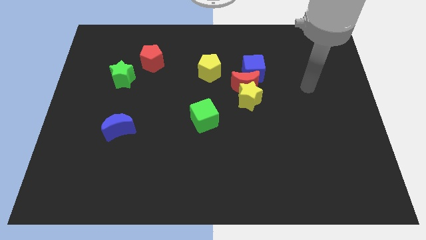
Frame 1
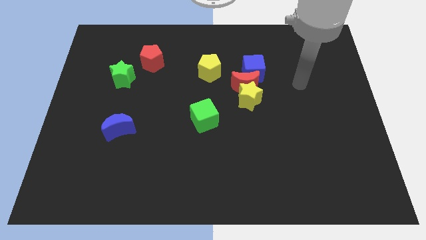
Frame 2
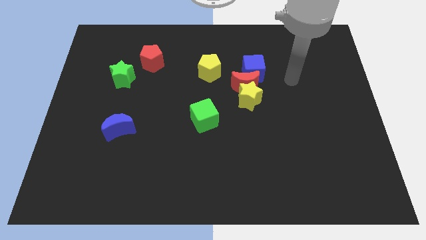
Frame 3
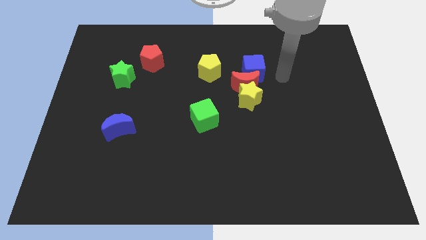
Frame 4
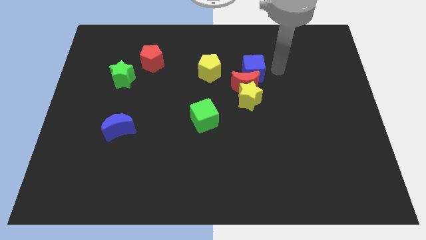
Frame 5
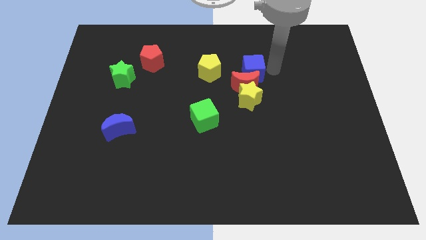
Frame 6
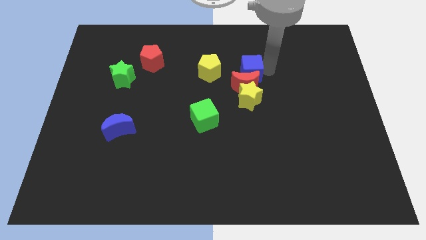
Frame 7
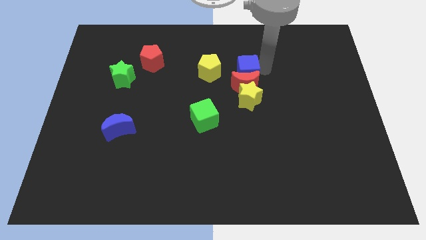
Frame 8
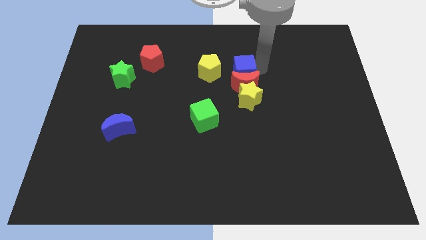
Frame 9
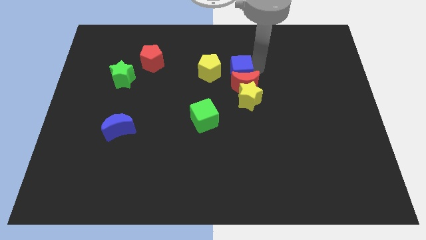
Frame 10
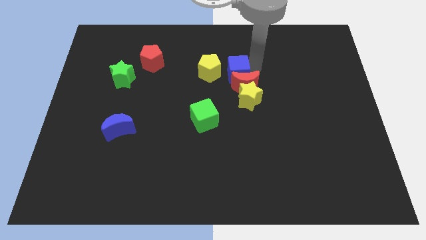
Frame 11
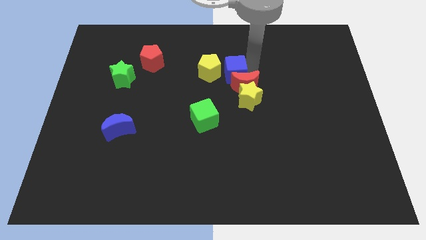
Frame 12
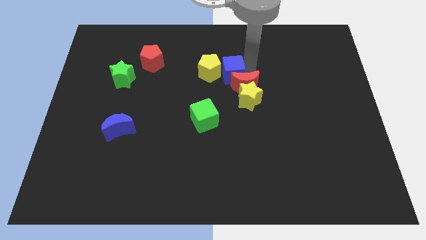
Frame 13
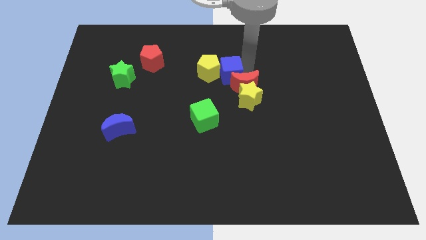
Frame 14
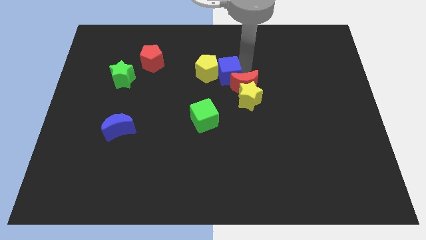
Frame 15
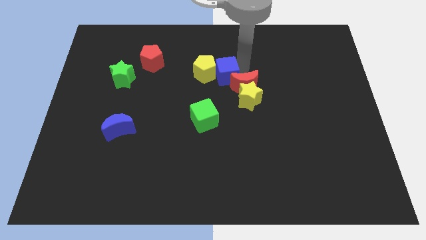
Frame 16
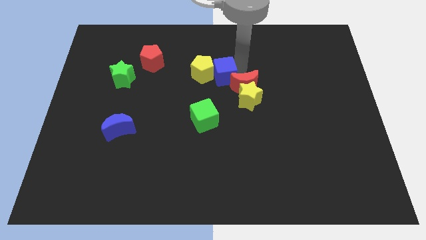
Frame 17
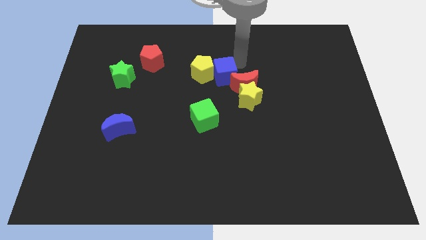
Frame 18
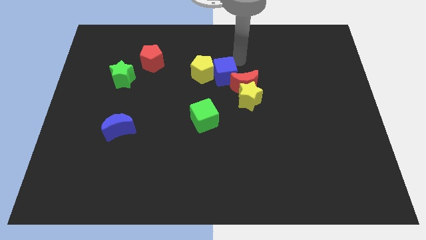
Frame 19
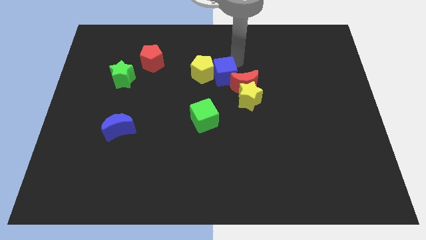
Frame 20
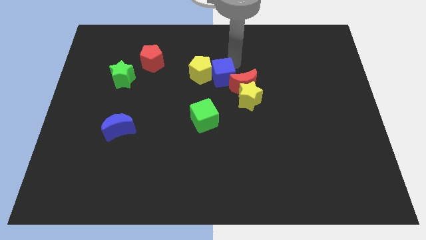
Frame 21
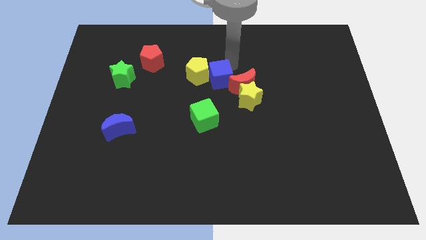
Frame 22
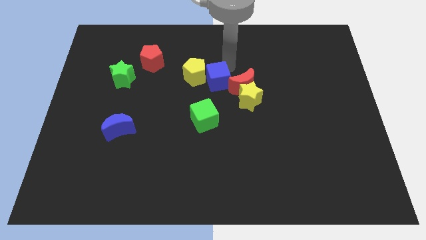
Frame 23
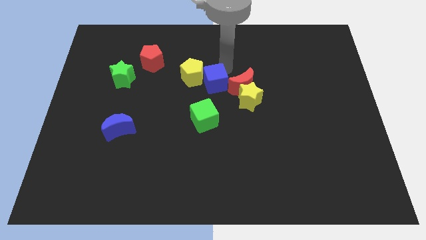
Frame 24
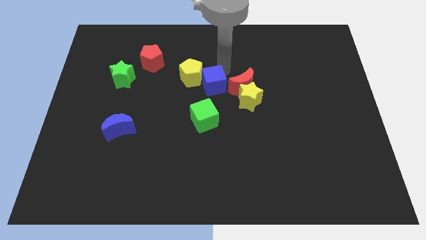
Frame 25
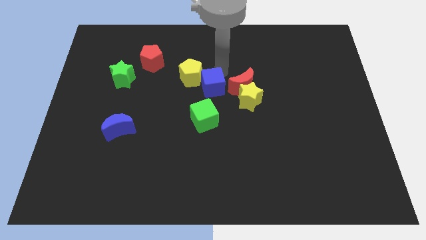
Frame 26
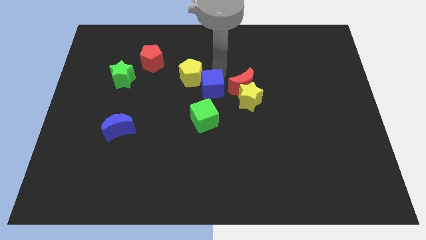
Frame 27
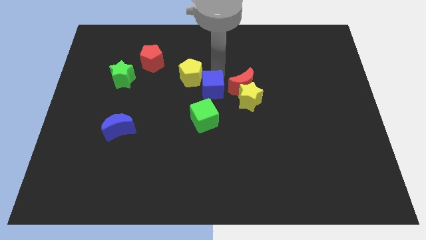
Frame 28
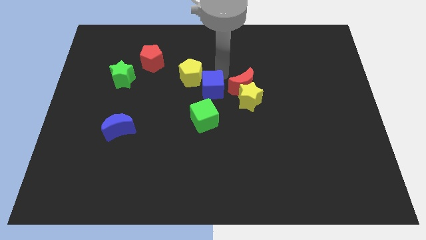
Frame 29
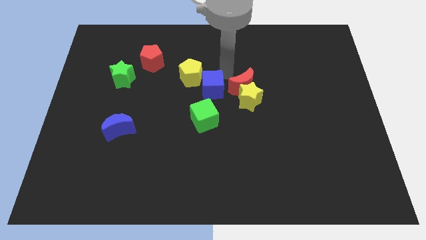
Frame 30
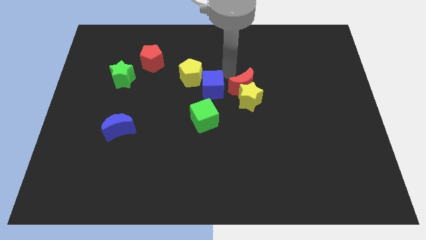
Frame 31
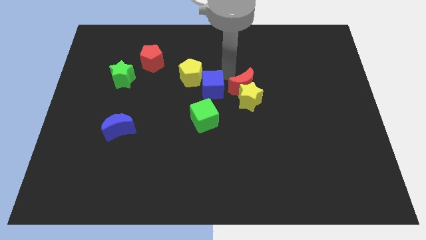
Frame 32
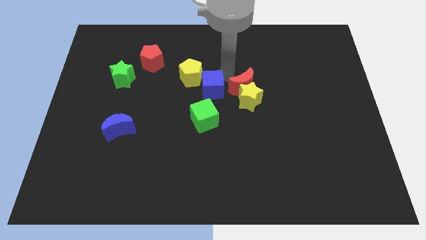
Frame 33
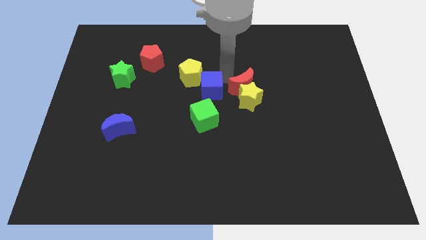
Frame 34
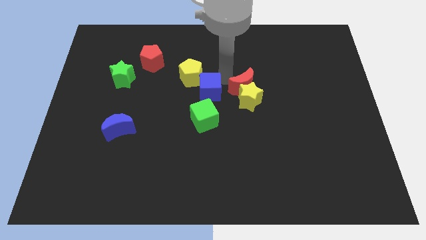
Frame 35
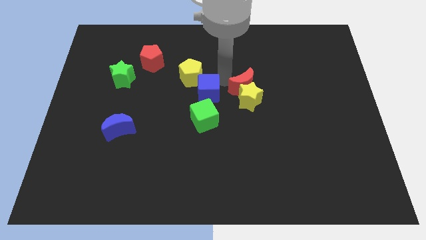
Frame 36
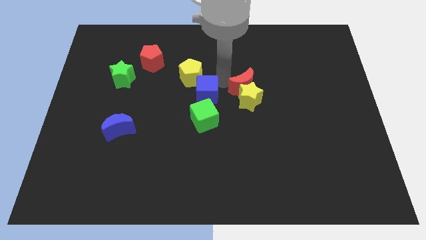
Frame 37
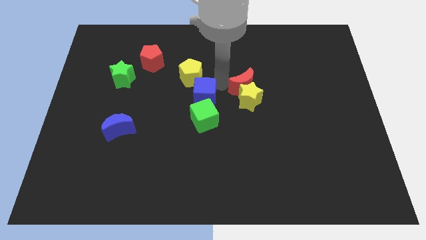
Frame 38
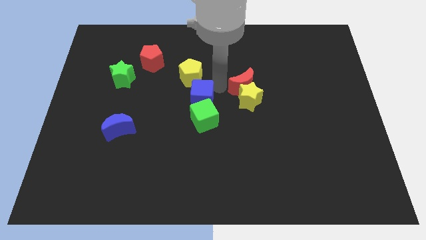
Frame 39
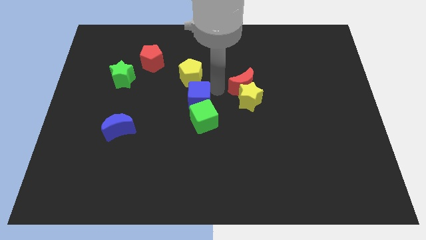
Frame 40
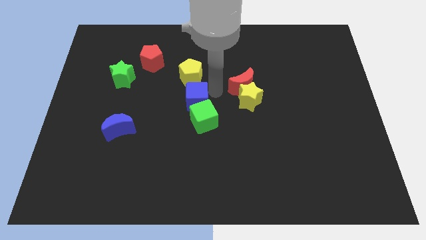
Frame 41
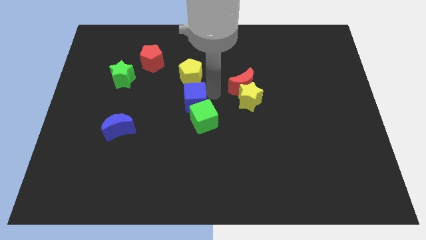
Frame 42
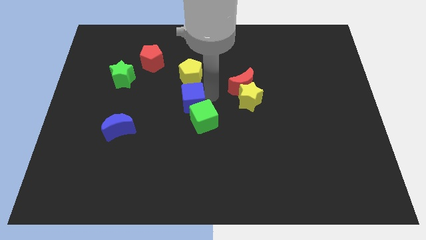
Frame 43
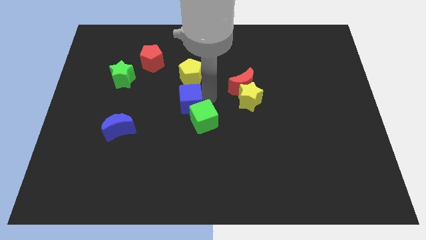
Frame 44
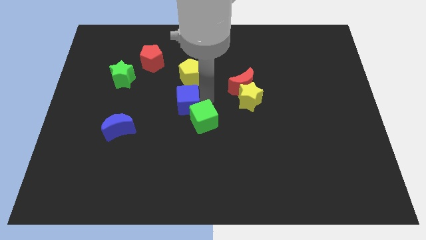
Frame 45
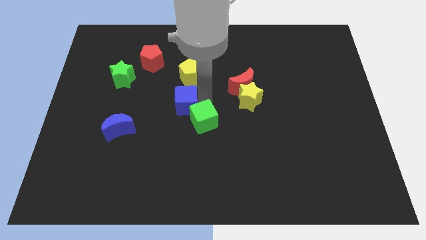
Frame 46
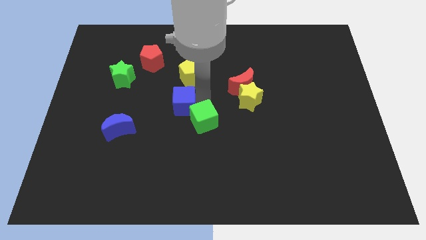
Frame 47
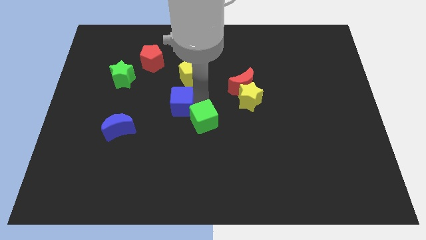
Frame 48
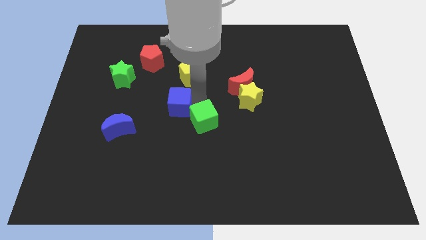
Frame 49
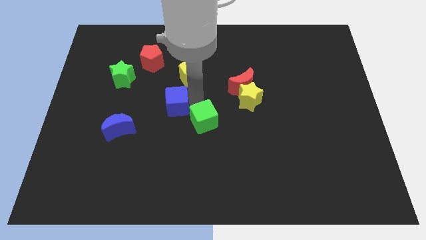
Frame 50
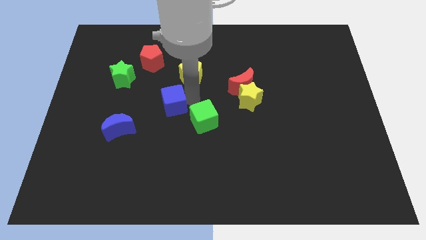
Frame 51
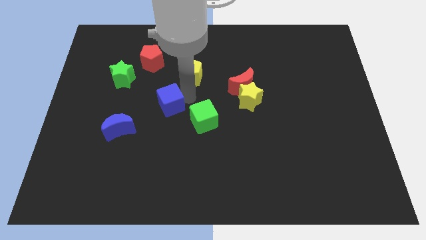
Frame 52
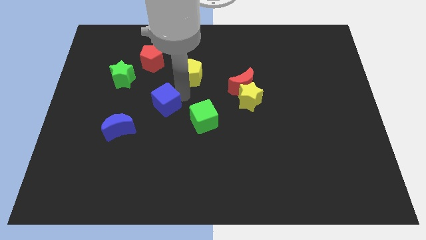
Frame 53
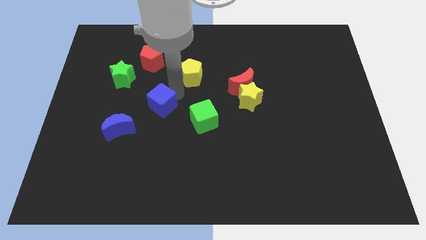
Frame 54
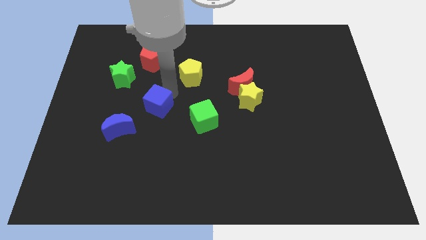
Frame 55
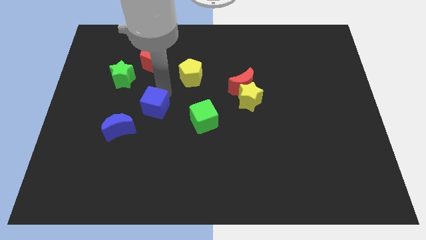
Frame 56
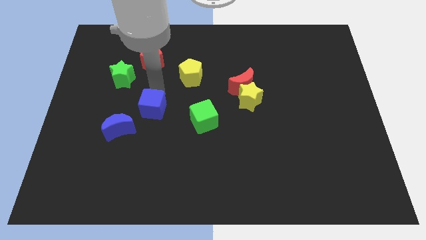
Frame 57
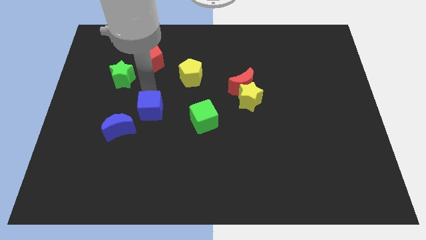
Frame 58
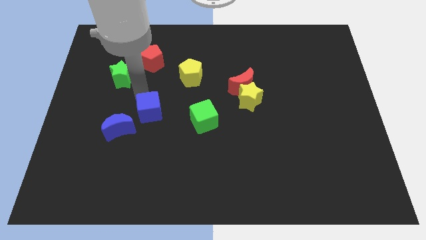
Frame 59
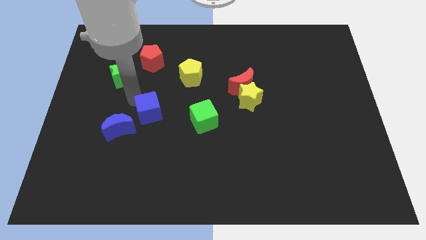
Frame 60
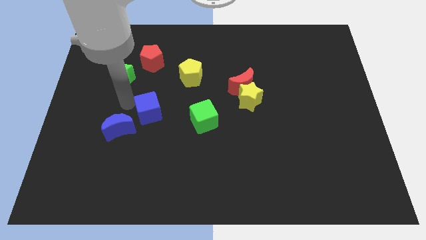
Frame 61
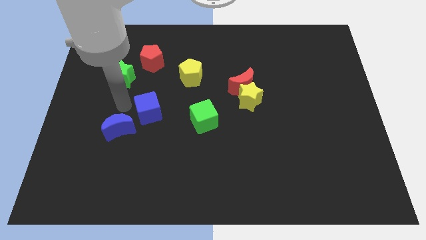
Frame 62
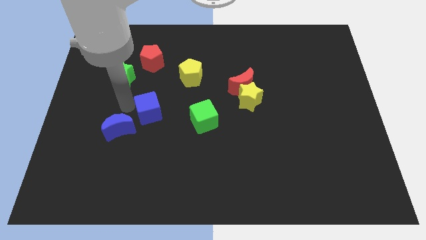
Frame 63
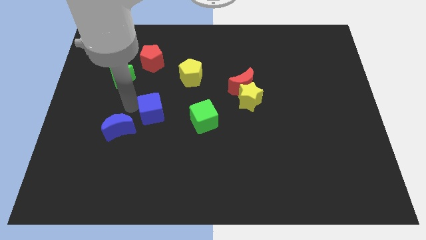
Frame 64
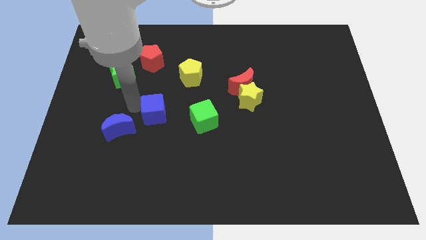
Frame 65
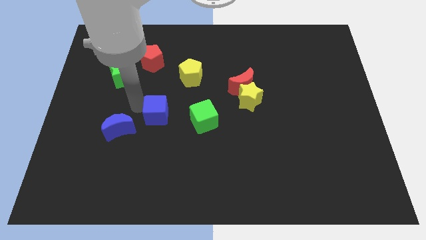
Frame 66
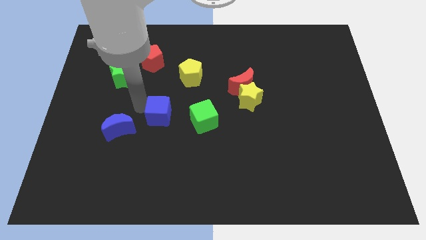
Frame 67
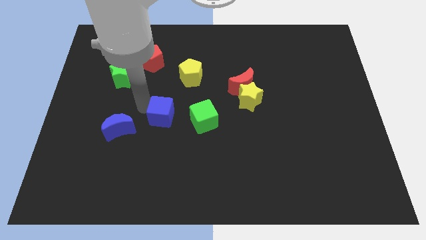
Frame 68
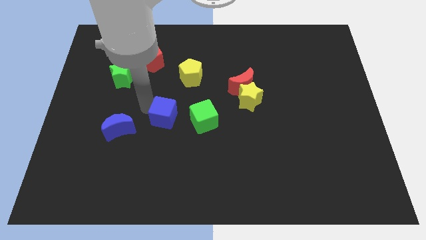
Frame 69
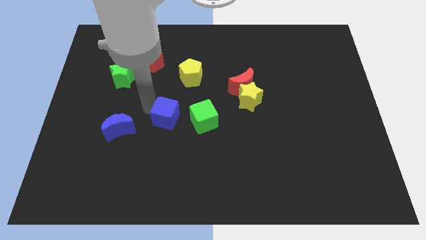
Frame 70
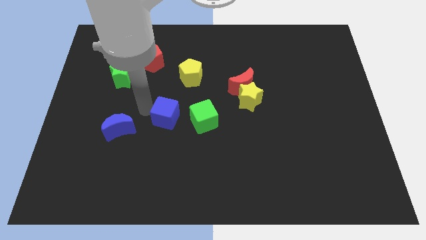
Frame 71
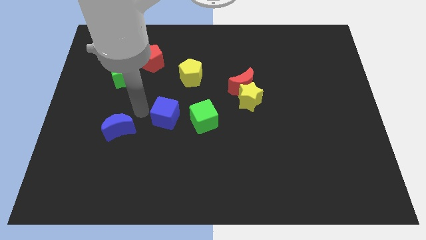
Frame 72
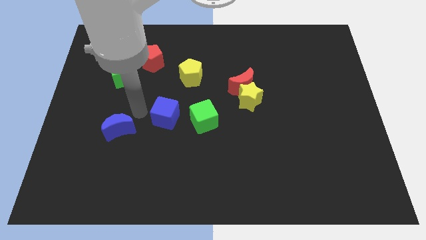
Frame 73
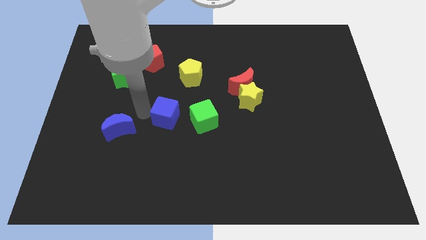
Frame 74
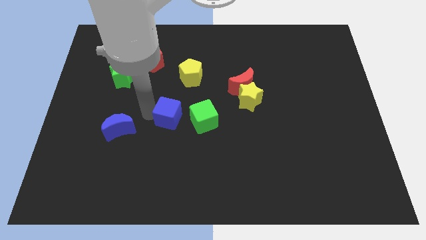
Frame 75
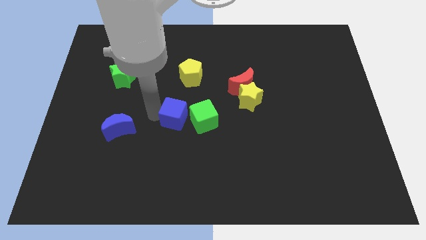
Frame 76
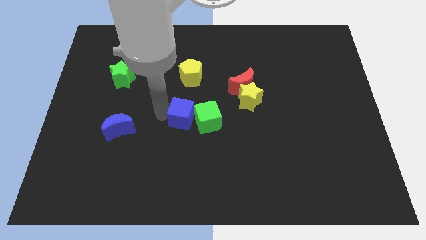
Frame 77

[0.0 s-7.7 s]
put the blue cube to the bottom left side of the green cube
